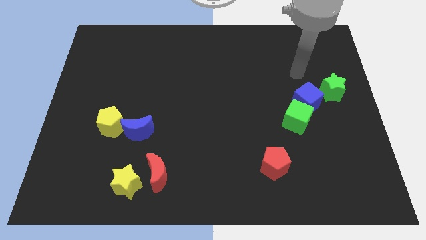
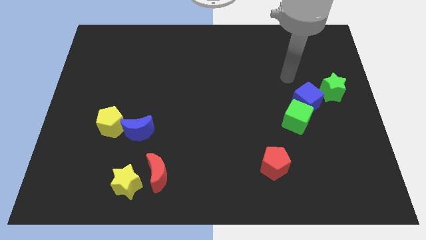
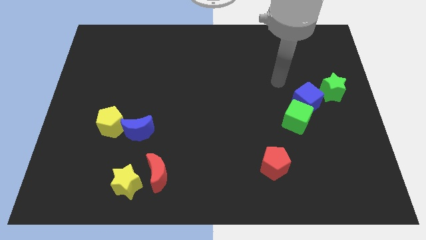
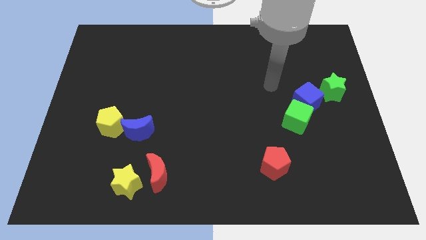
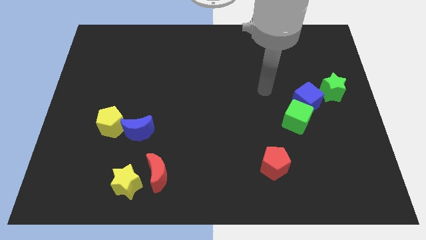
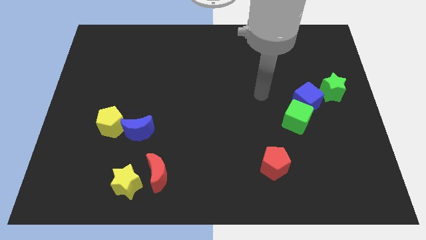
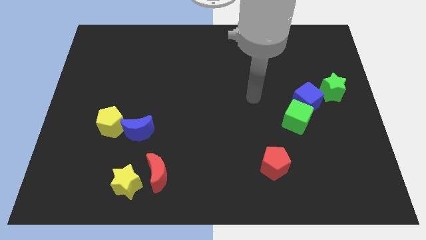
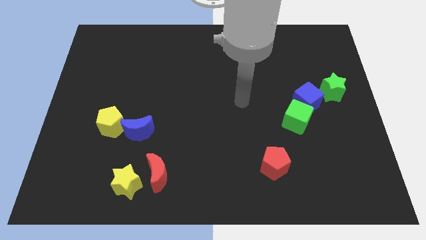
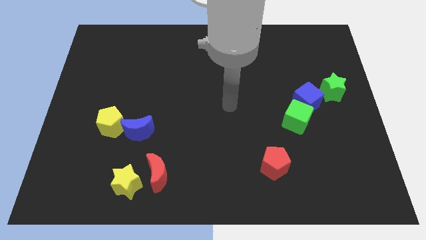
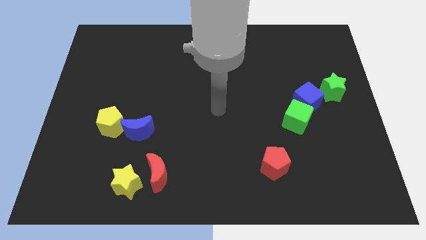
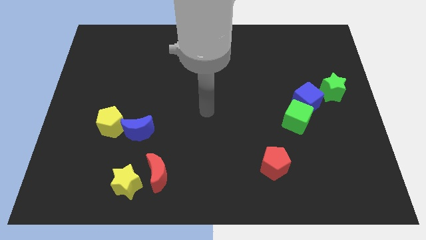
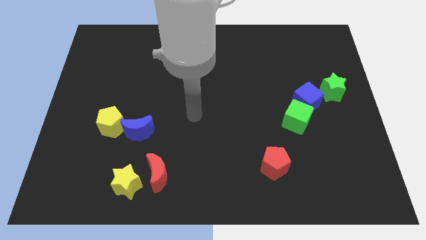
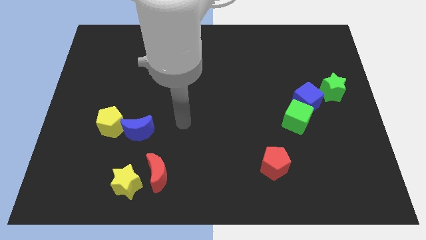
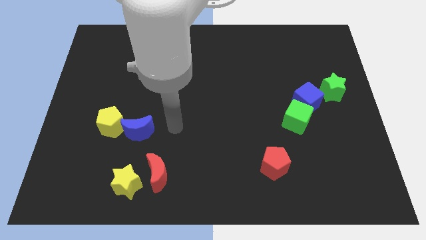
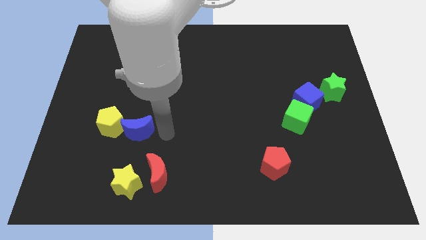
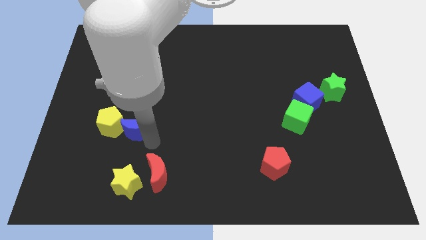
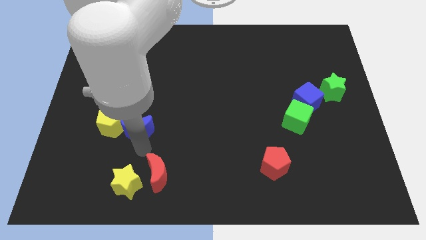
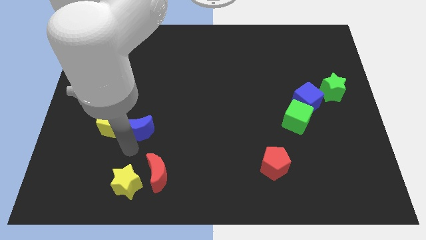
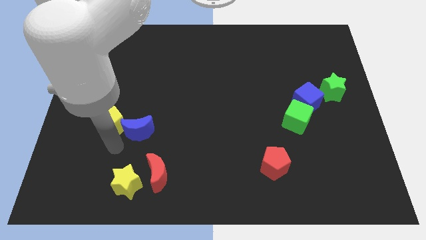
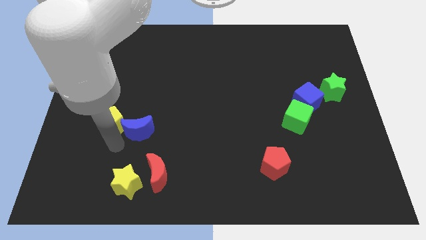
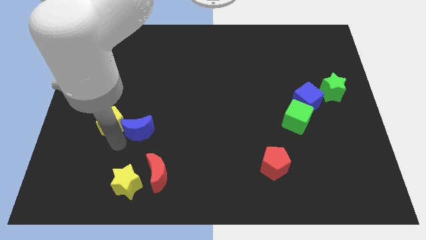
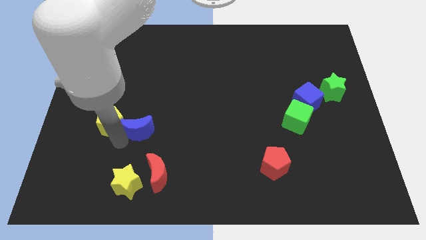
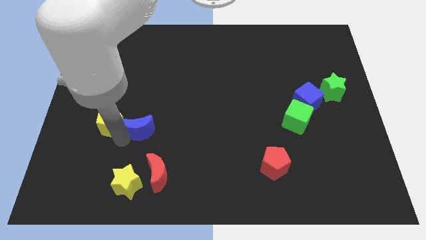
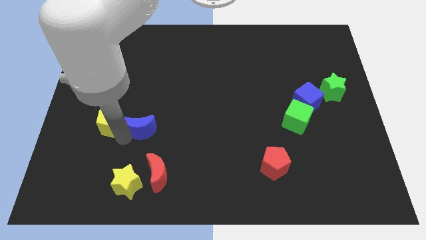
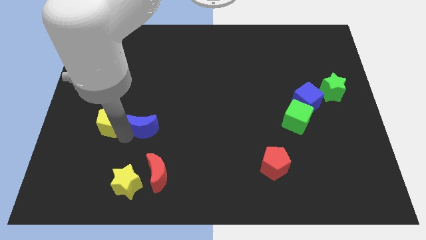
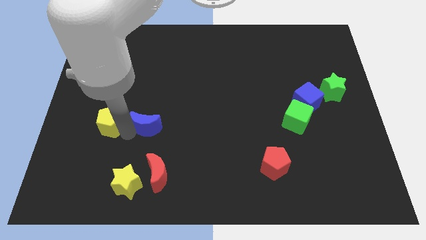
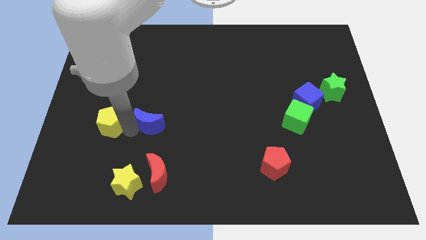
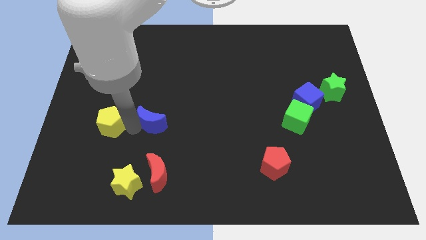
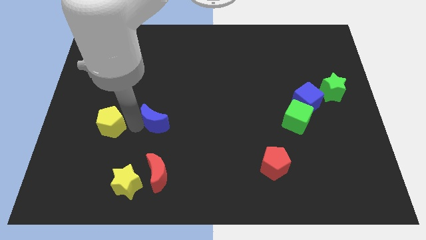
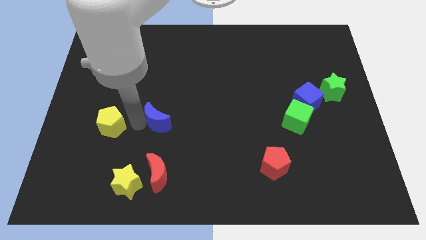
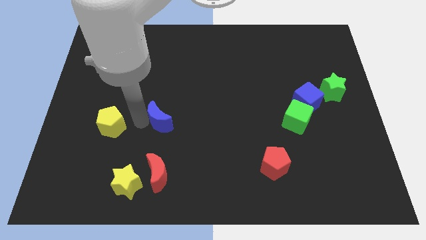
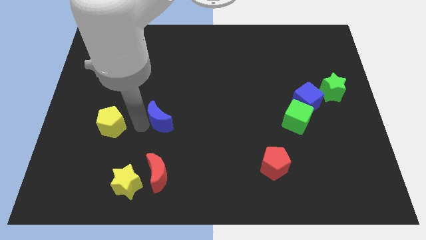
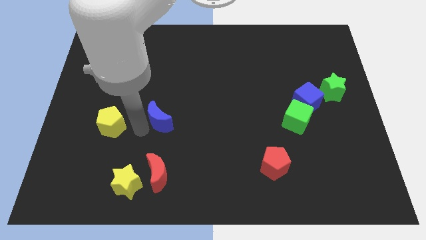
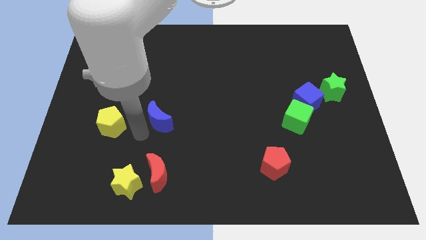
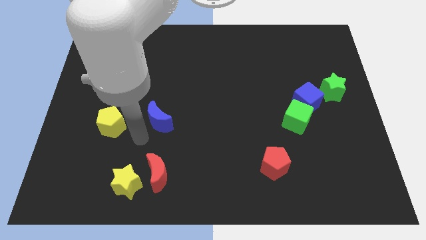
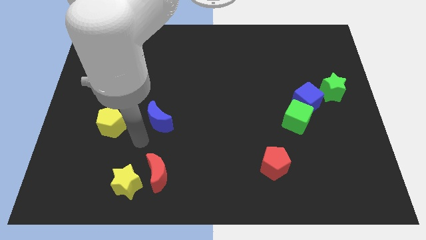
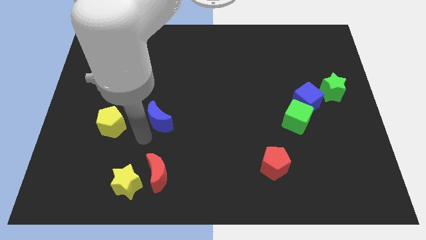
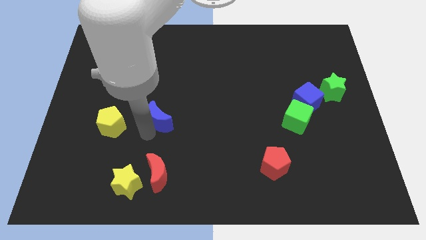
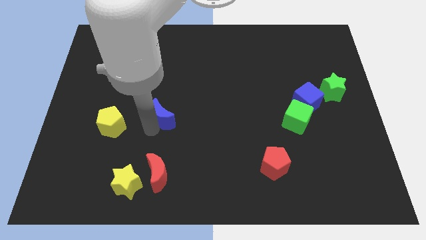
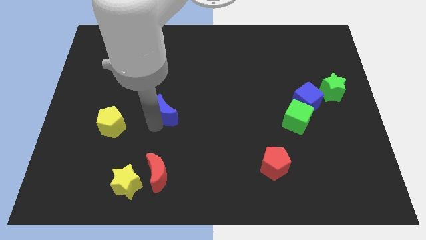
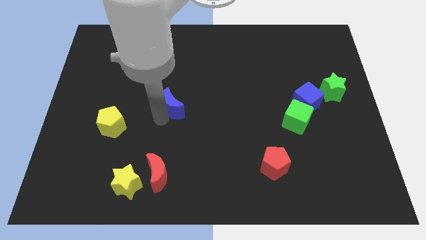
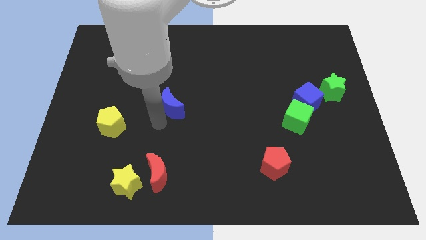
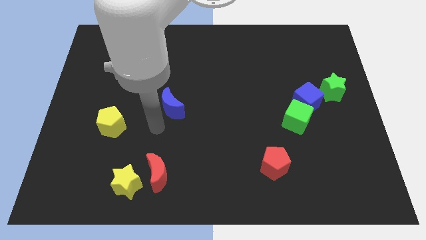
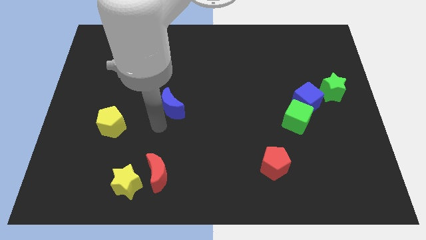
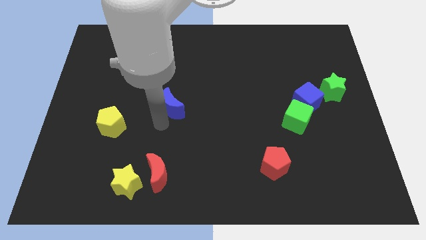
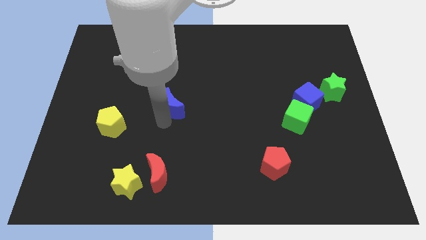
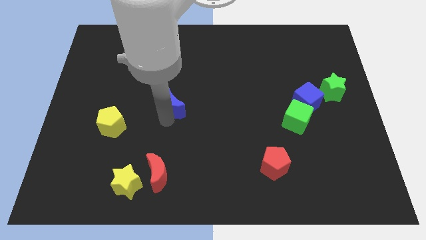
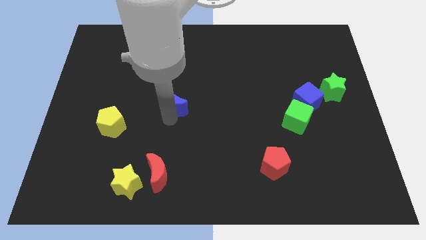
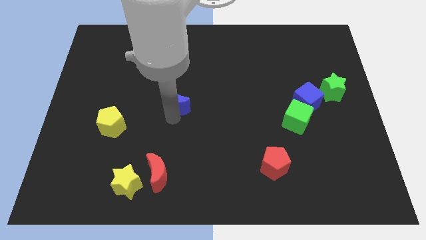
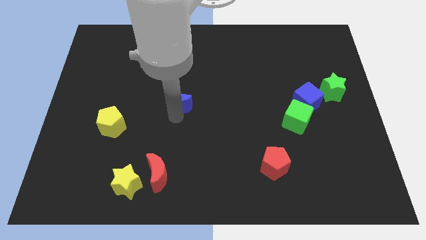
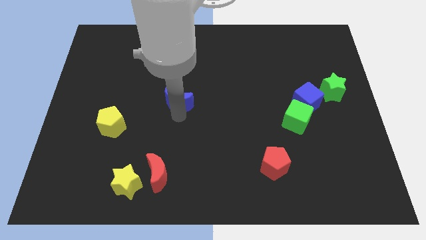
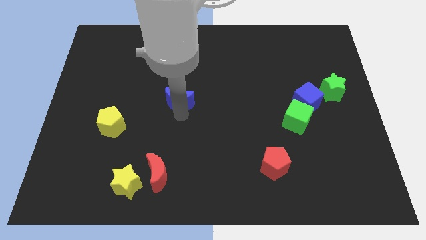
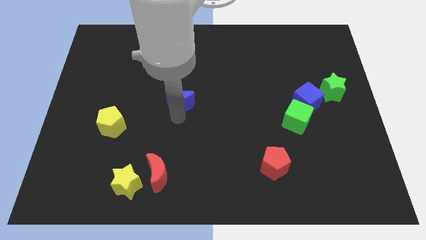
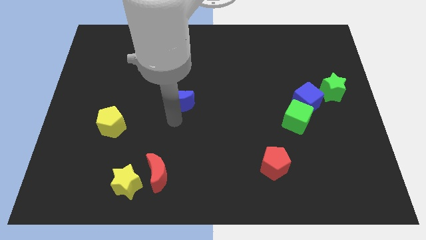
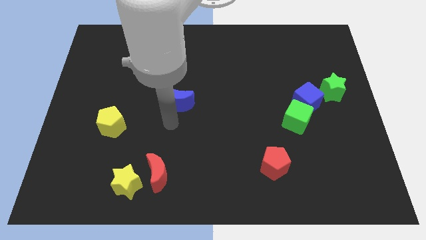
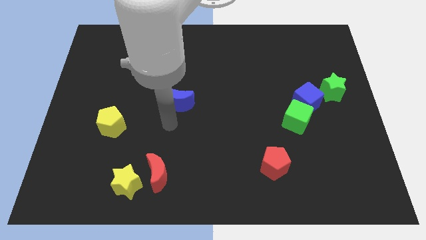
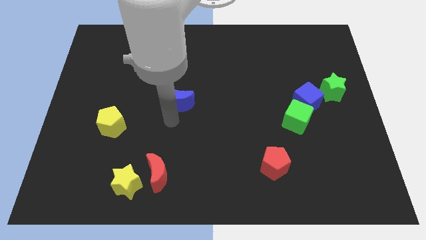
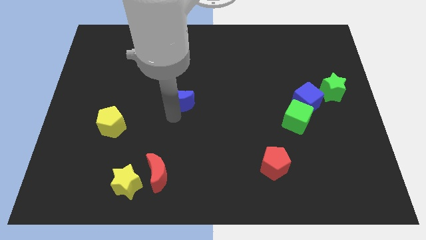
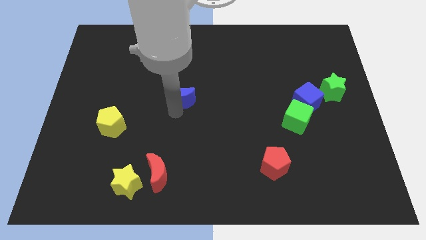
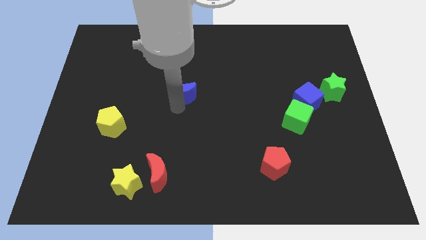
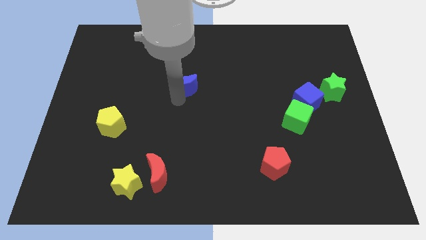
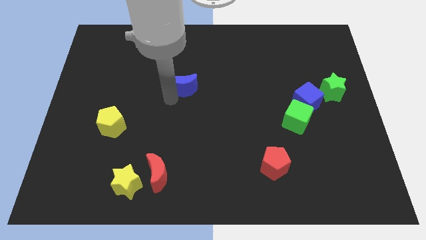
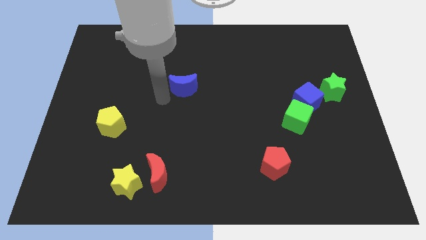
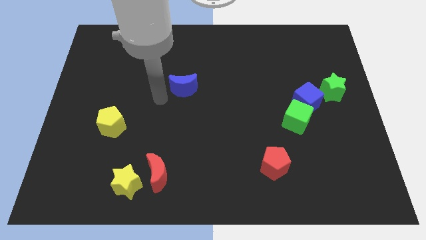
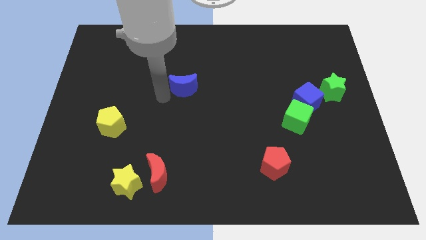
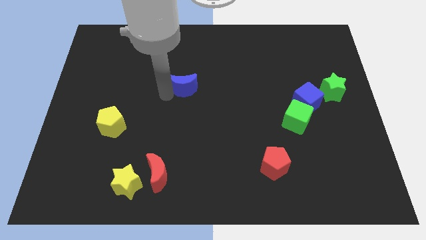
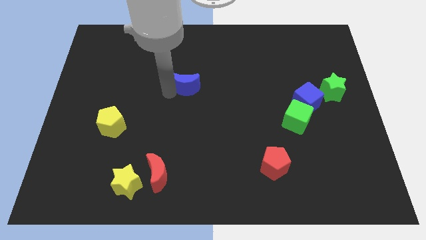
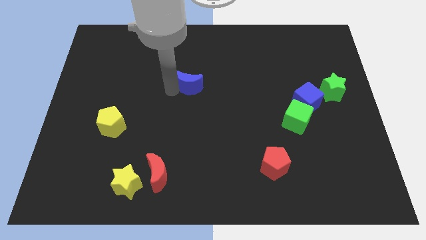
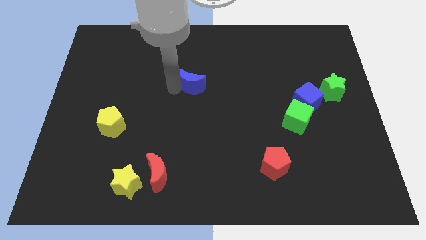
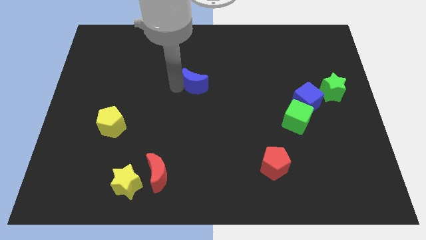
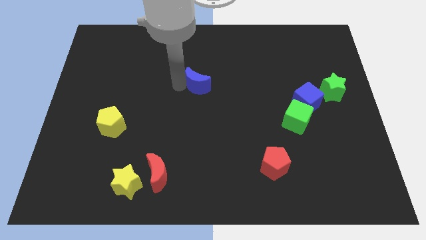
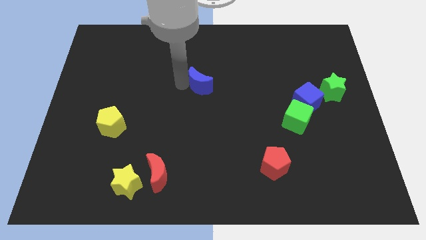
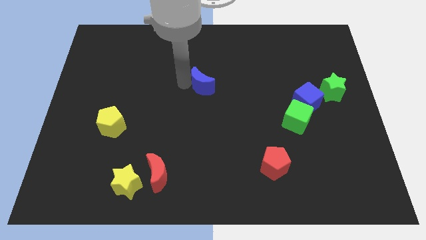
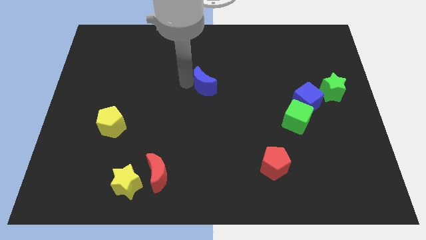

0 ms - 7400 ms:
move the blue moon diagonally upwards and right

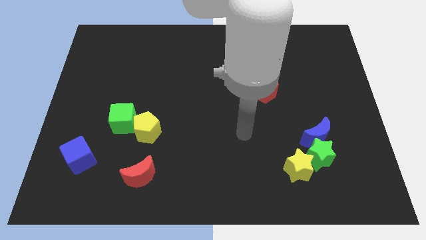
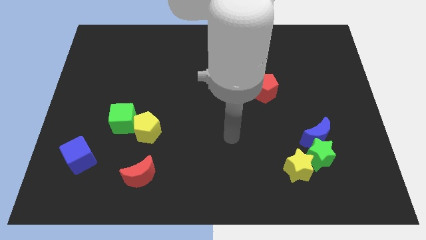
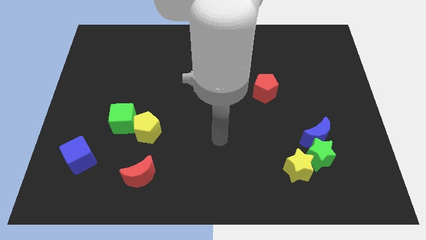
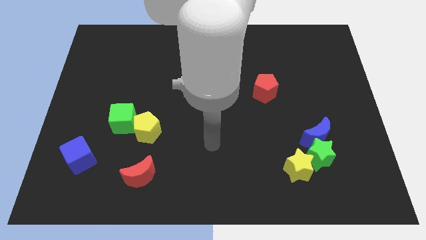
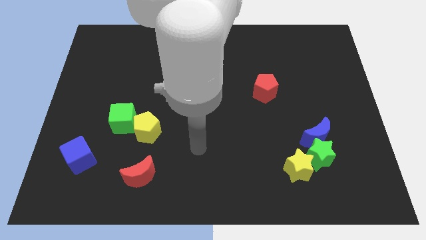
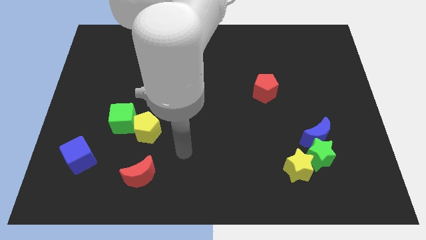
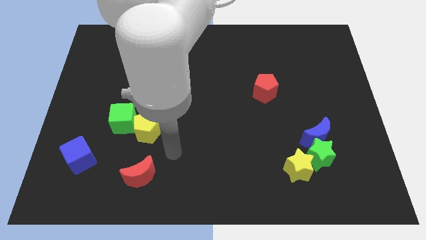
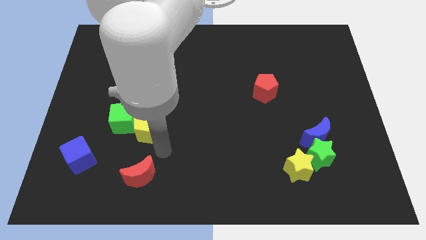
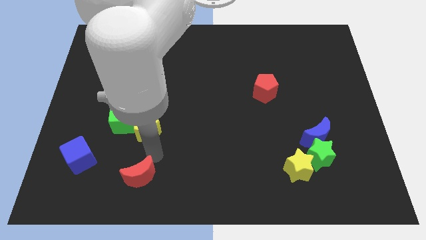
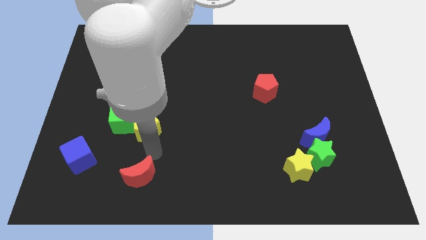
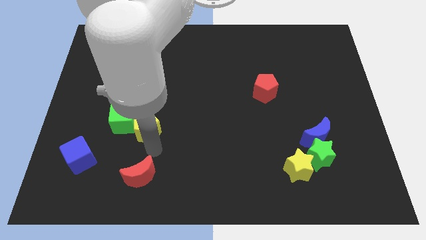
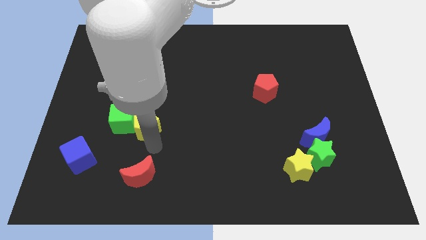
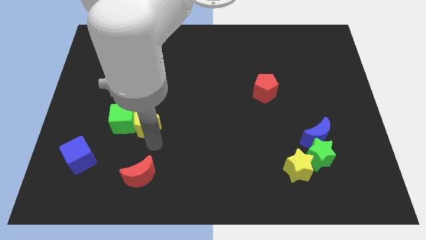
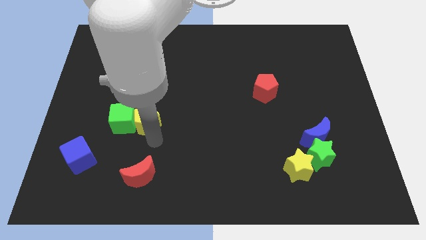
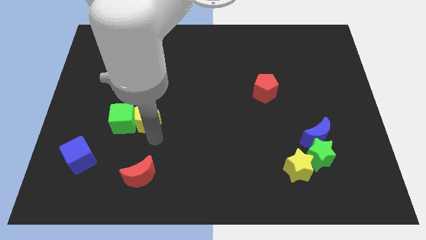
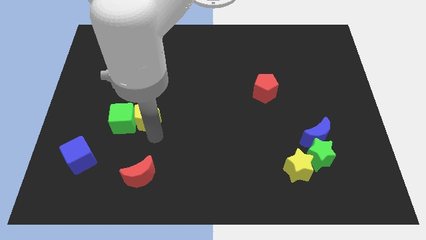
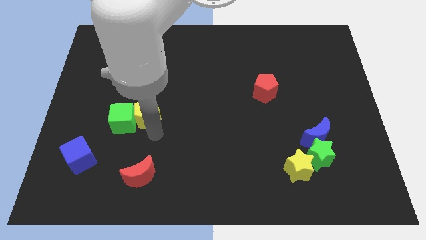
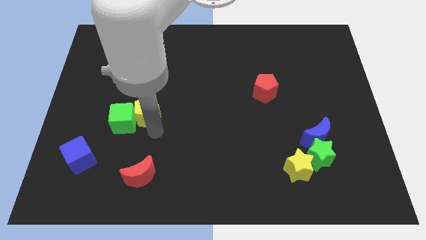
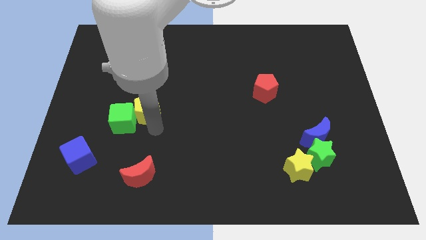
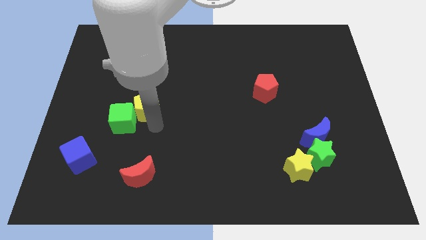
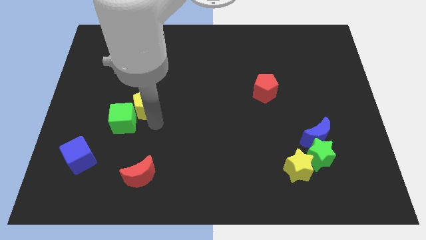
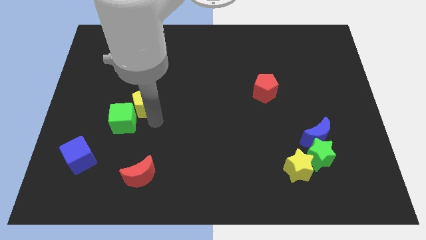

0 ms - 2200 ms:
slide the yellow pentagon slightly up
